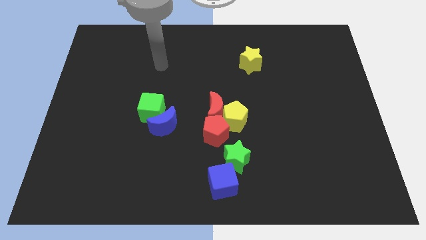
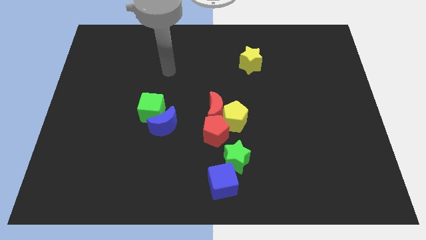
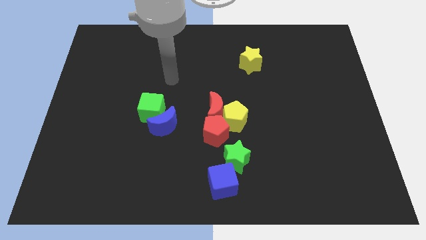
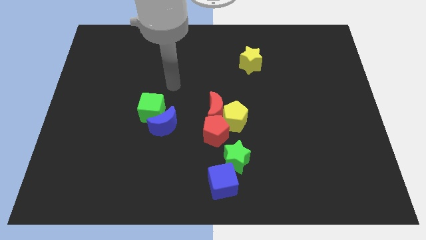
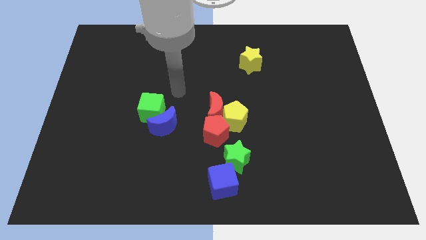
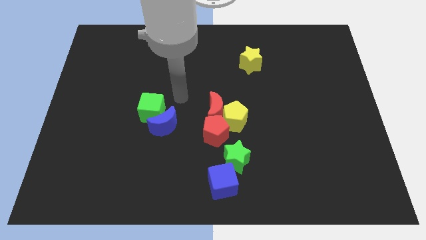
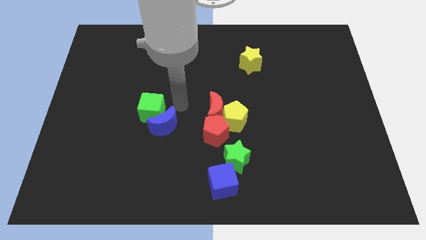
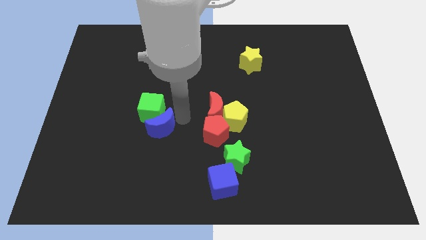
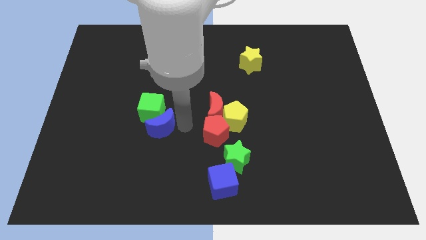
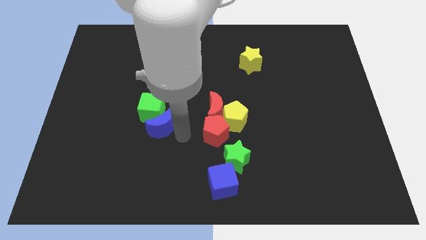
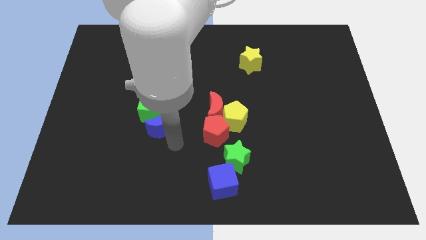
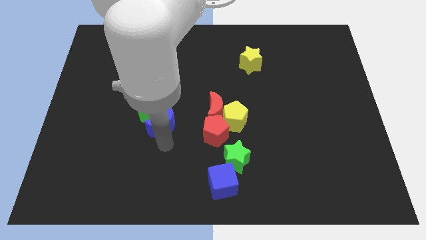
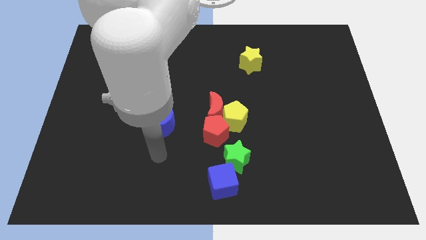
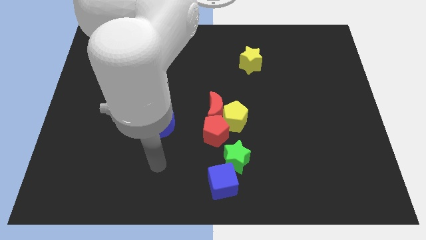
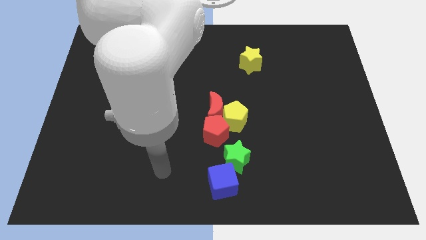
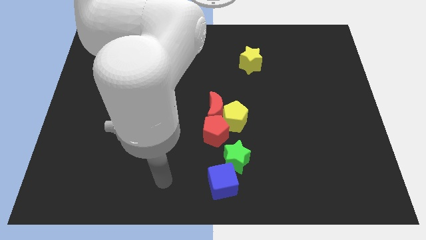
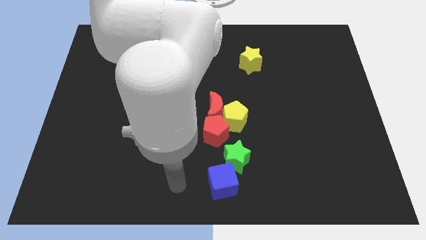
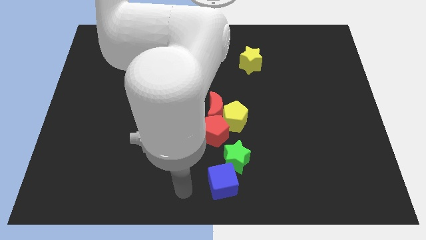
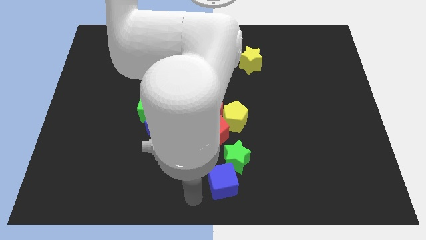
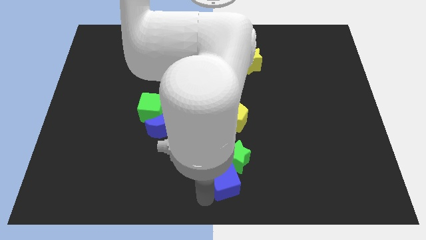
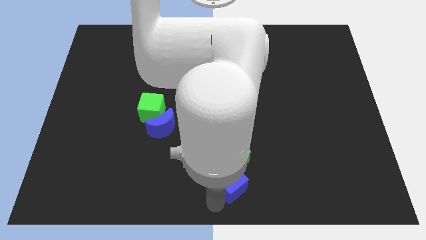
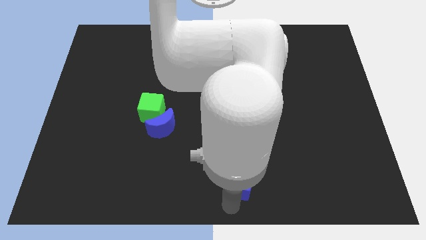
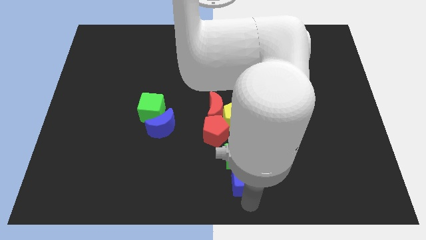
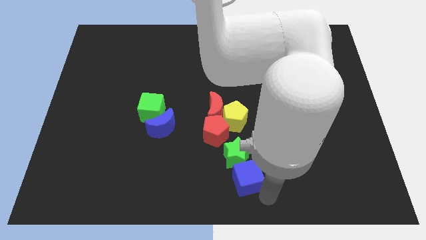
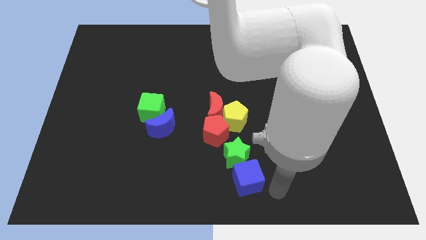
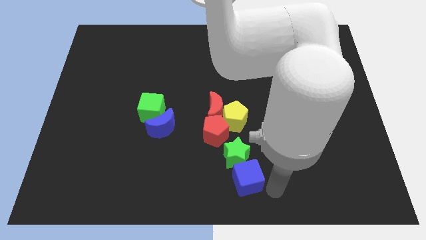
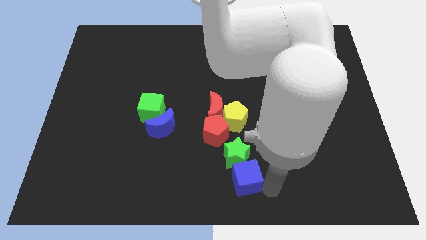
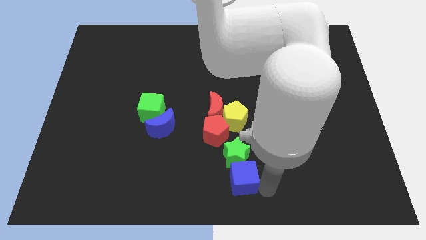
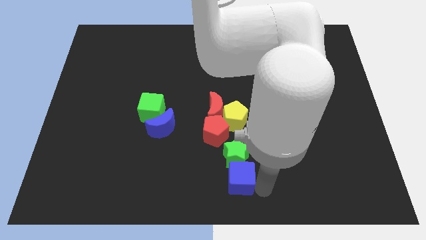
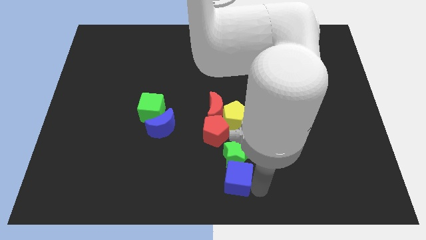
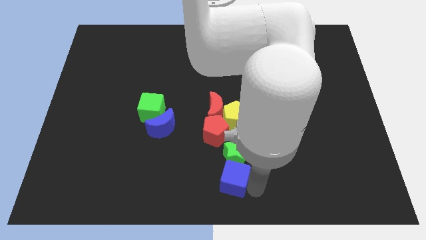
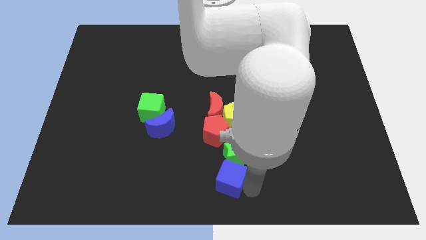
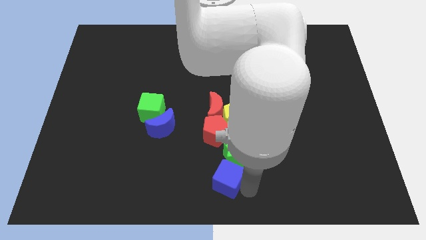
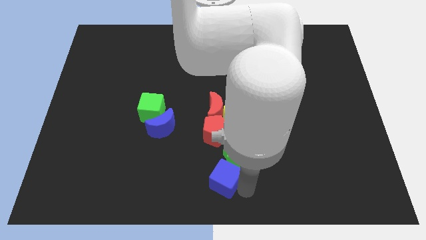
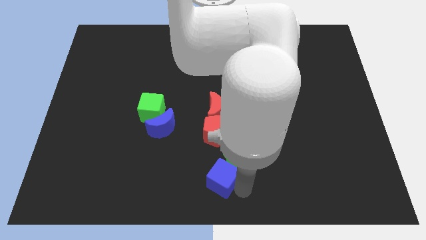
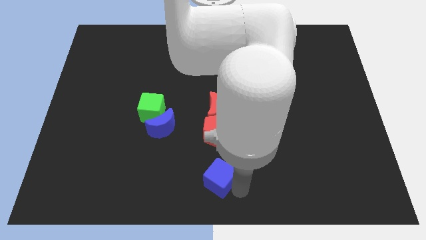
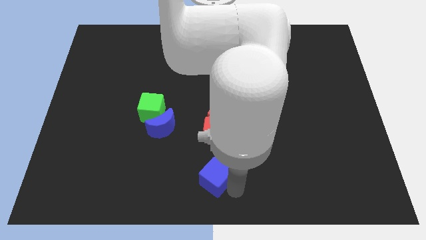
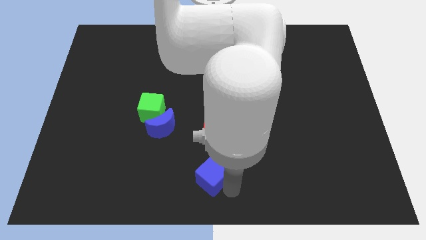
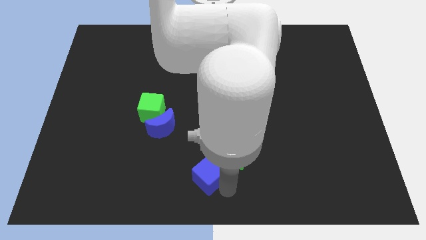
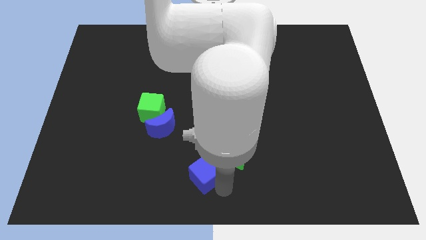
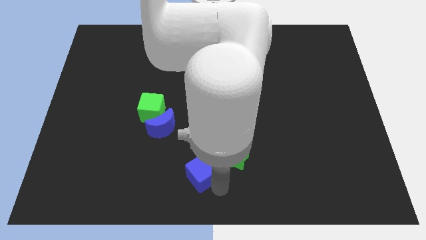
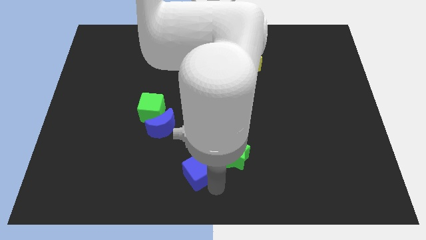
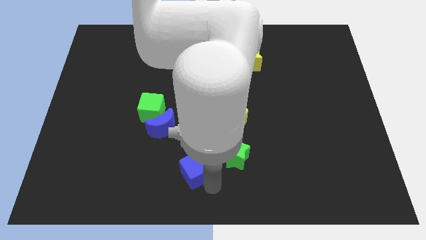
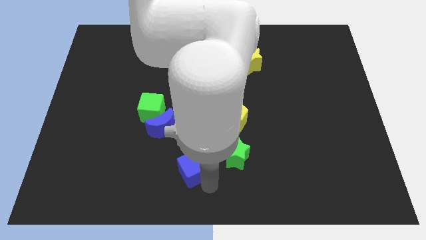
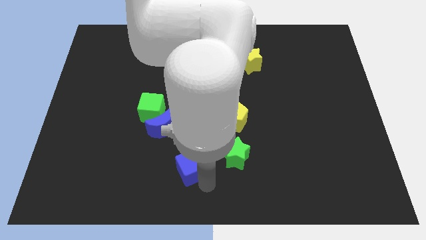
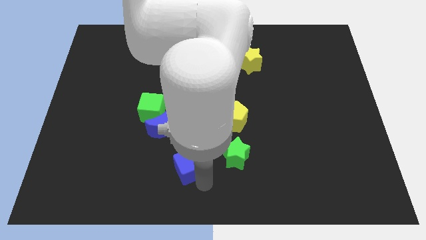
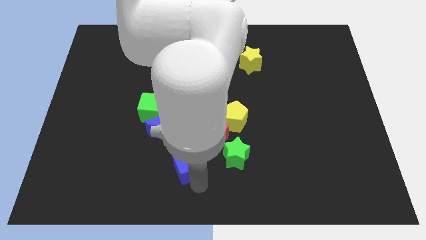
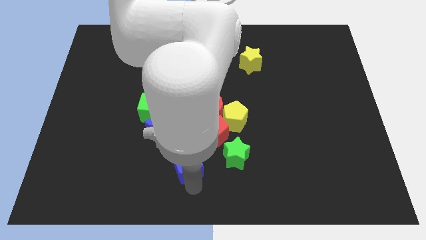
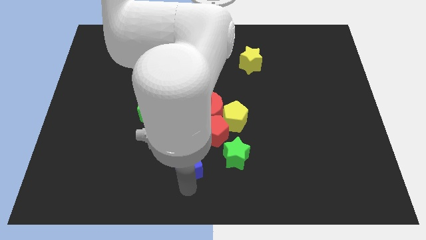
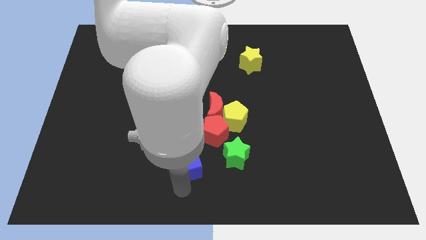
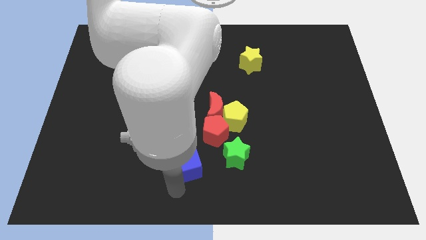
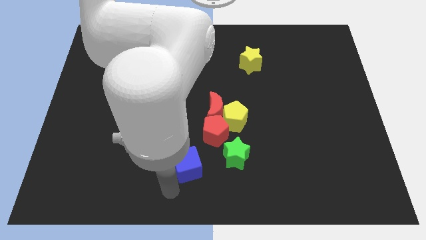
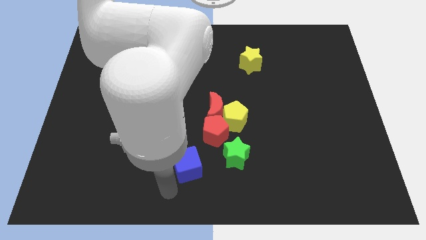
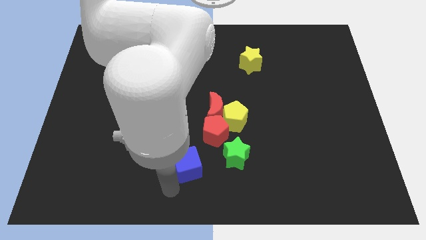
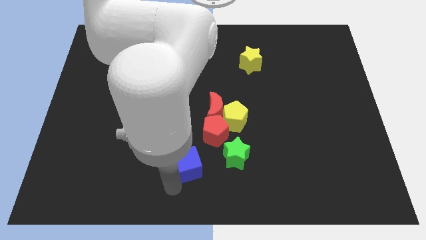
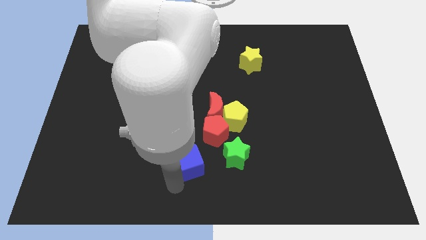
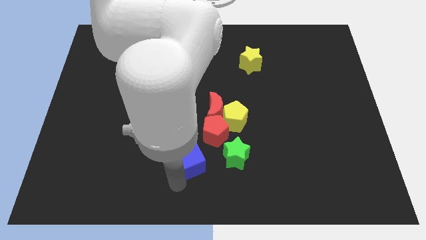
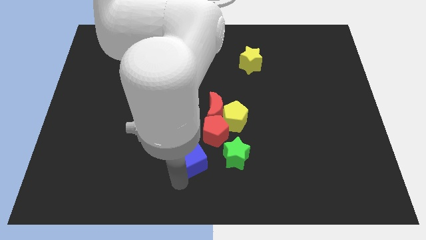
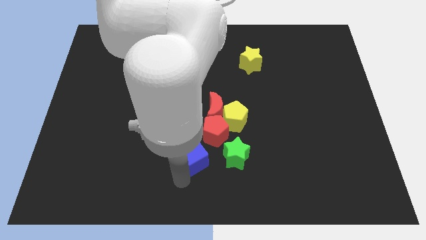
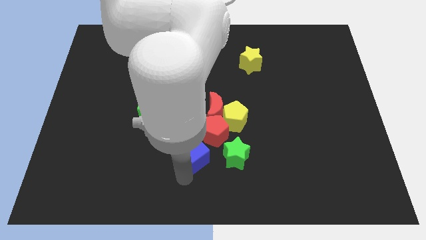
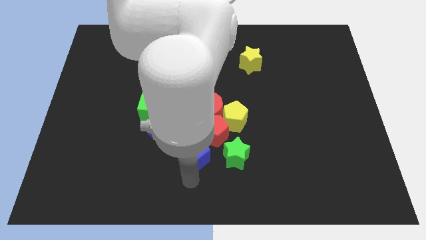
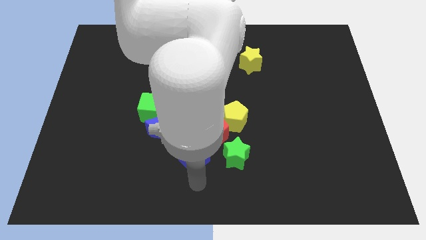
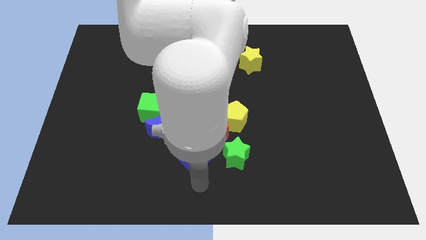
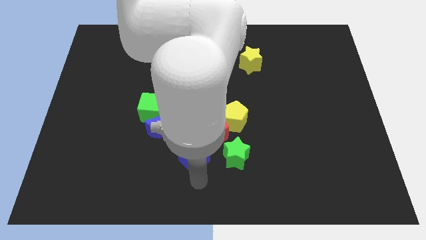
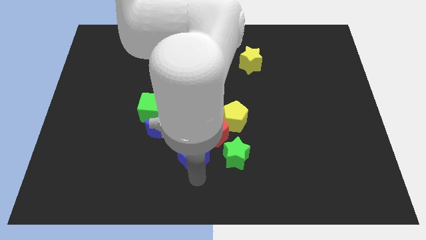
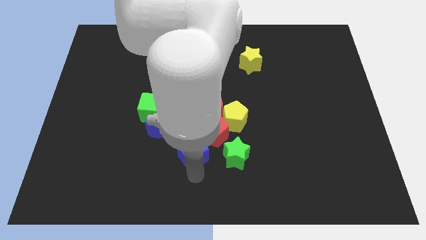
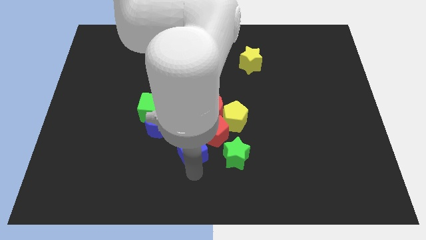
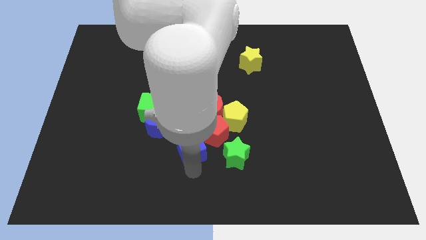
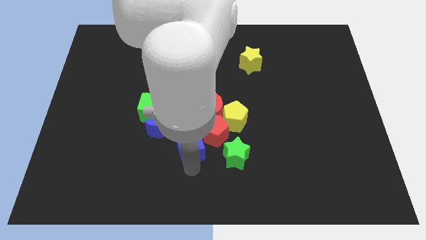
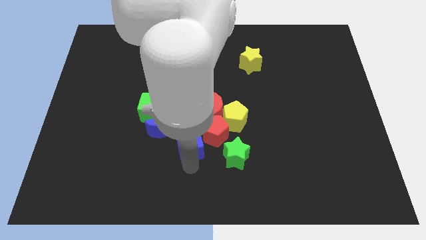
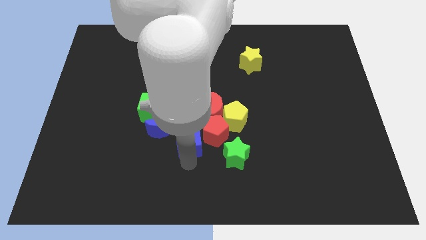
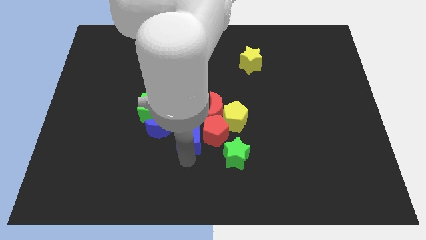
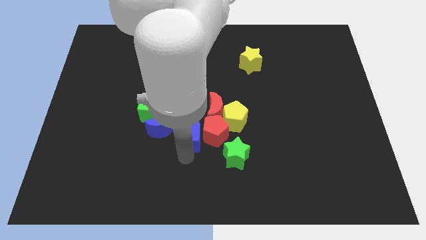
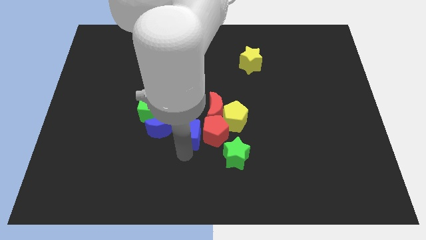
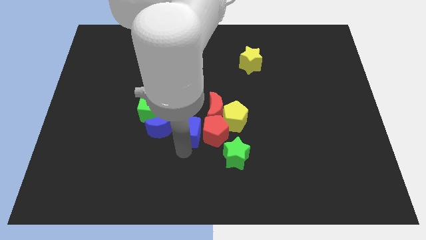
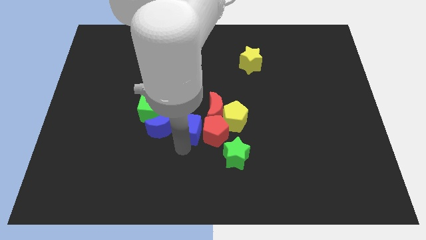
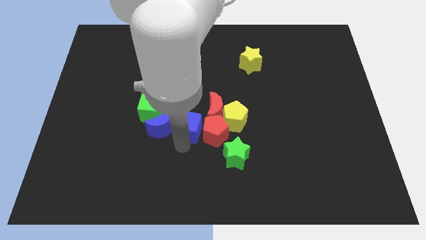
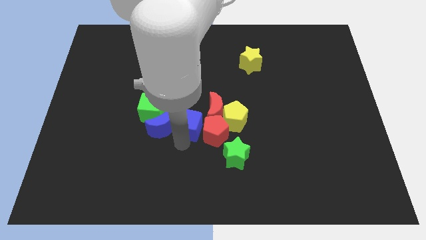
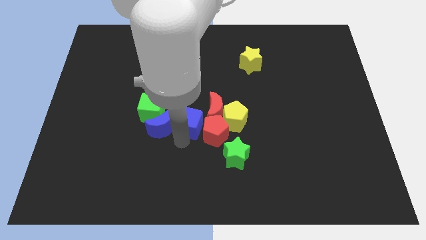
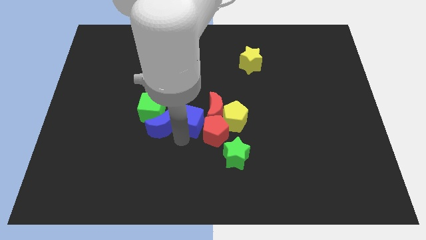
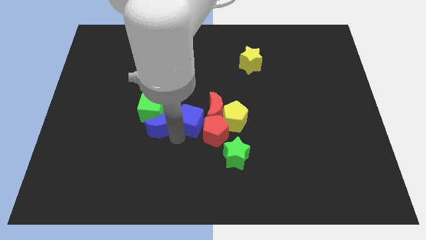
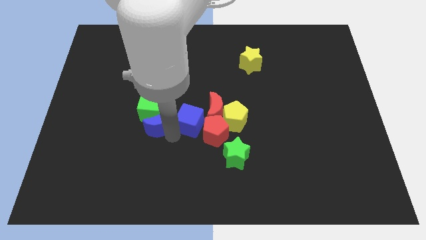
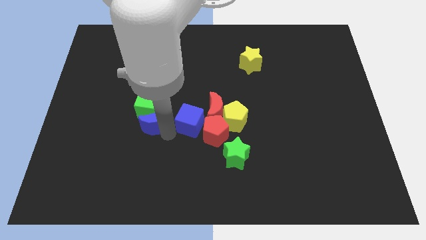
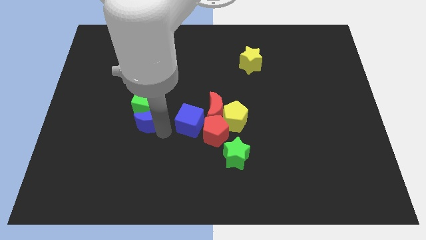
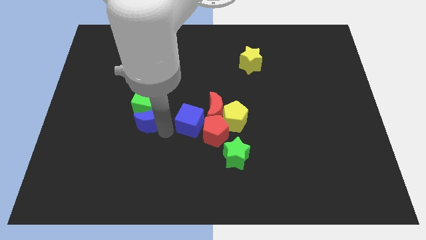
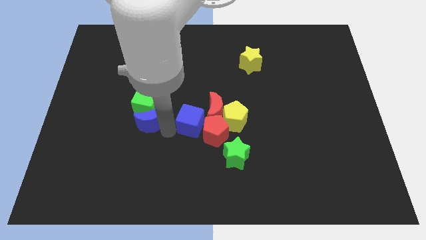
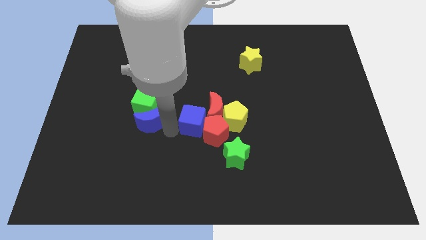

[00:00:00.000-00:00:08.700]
slide the blue cube close to the red moon
